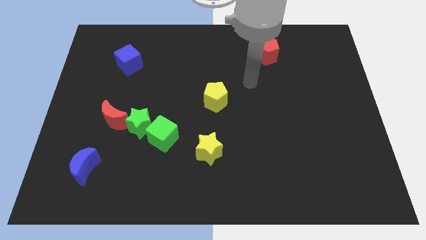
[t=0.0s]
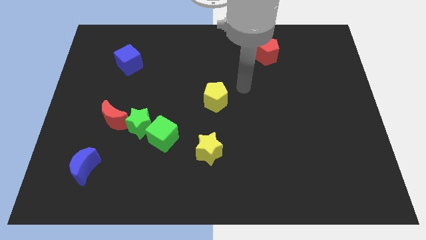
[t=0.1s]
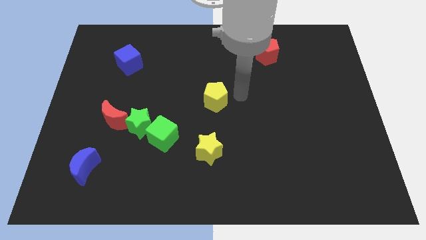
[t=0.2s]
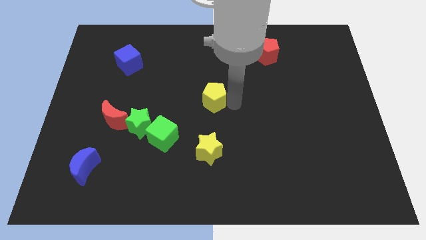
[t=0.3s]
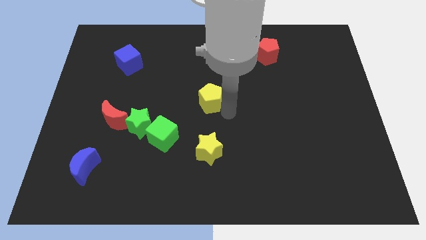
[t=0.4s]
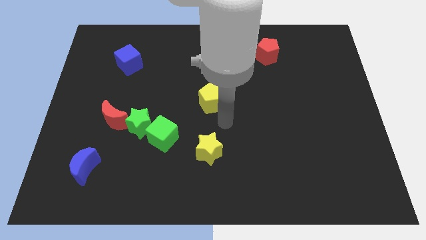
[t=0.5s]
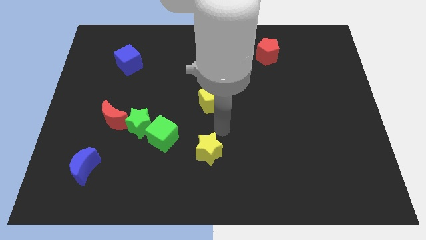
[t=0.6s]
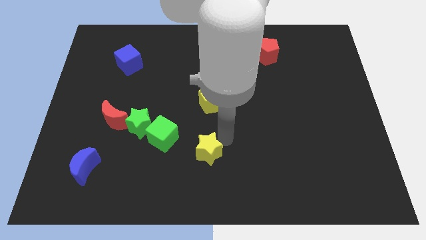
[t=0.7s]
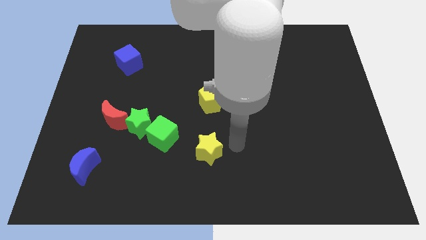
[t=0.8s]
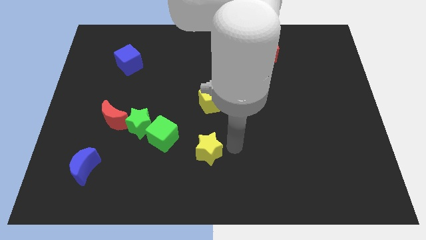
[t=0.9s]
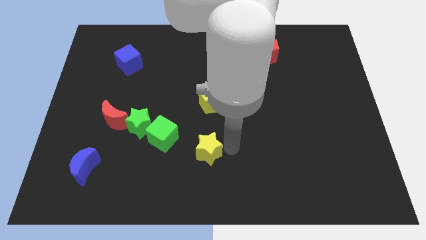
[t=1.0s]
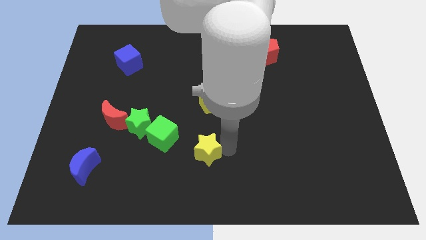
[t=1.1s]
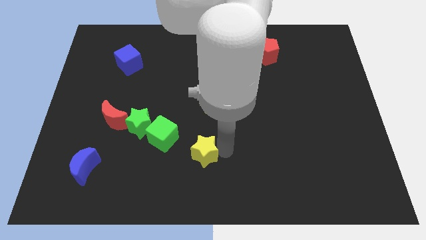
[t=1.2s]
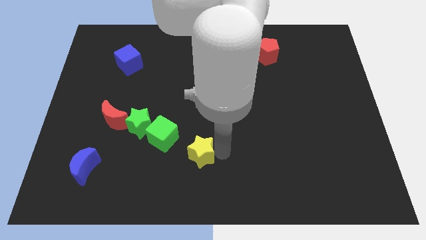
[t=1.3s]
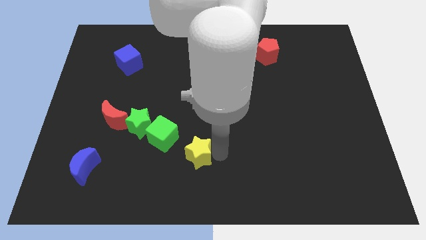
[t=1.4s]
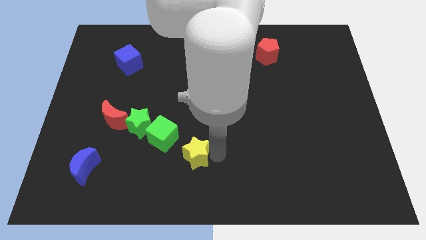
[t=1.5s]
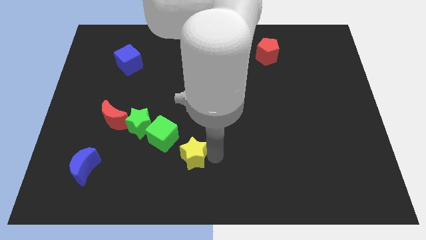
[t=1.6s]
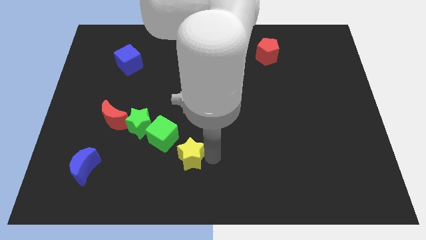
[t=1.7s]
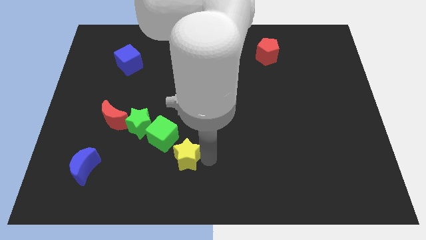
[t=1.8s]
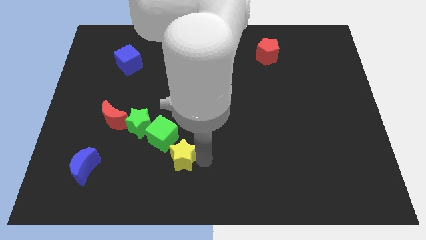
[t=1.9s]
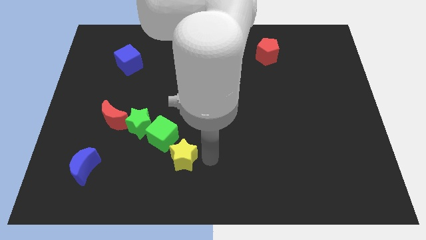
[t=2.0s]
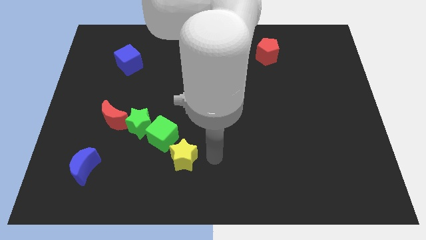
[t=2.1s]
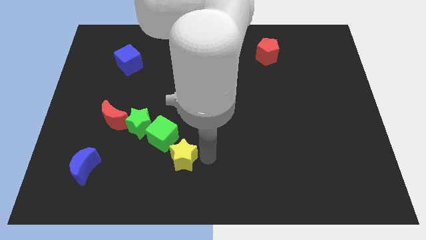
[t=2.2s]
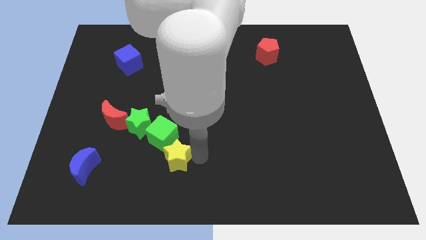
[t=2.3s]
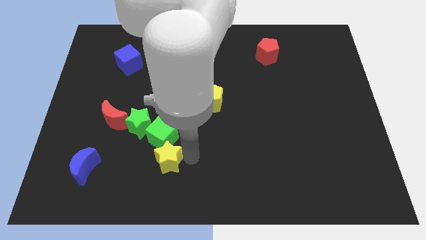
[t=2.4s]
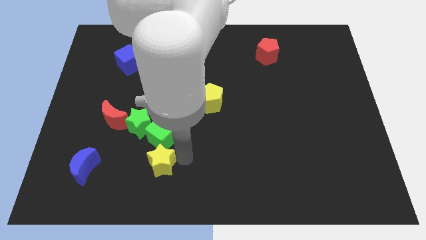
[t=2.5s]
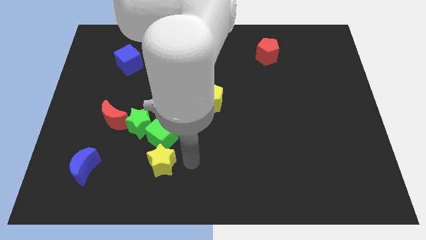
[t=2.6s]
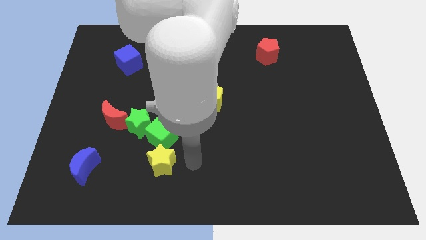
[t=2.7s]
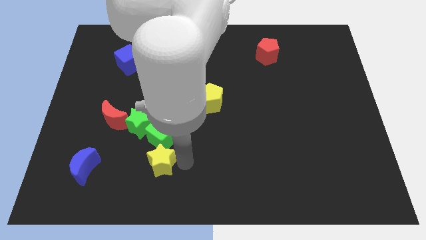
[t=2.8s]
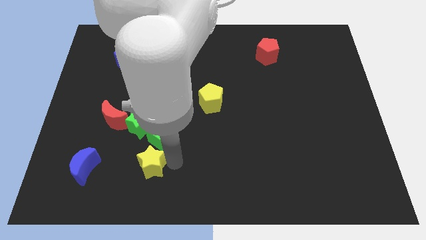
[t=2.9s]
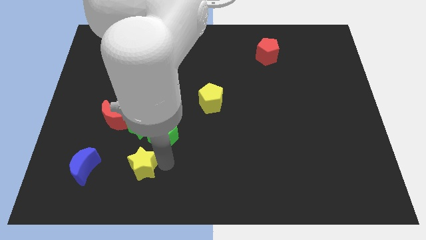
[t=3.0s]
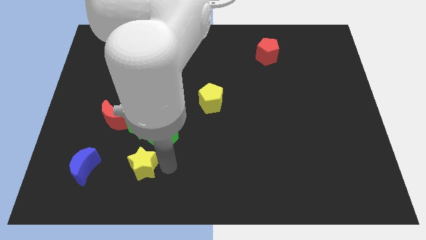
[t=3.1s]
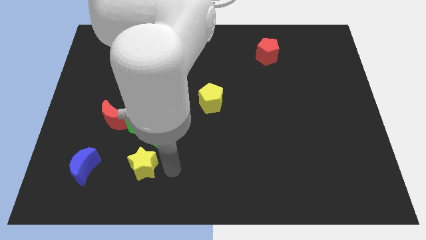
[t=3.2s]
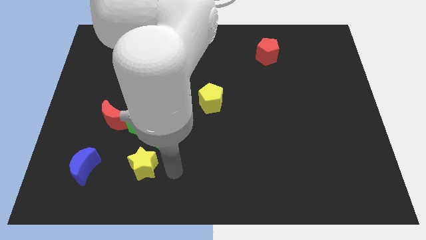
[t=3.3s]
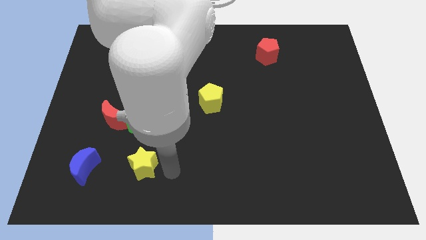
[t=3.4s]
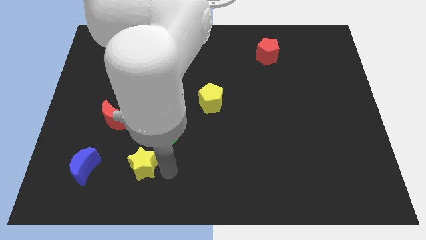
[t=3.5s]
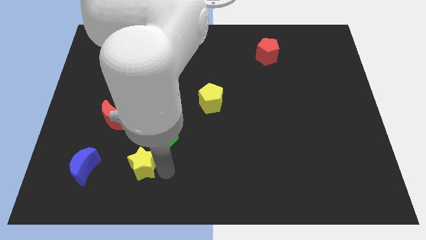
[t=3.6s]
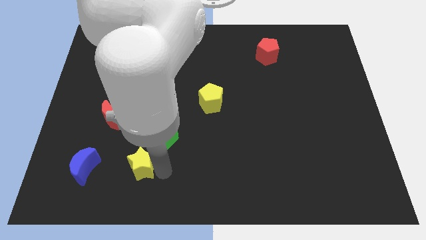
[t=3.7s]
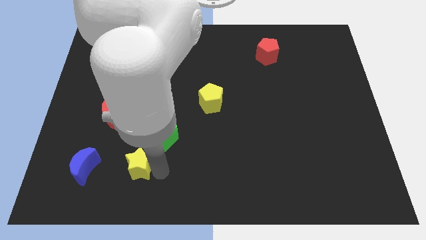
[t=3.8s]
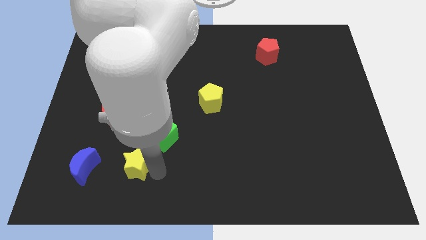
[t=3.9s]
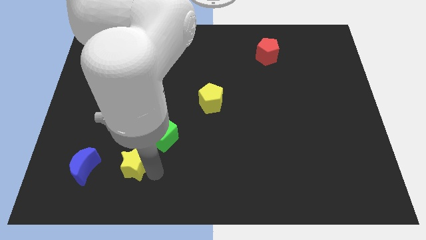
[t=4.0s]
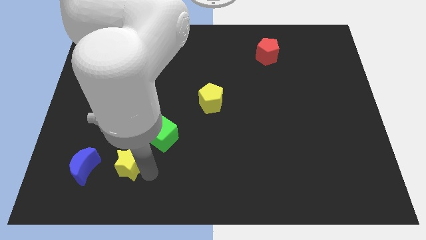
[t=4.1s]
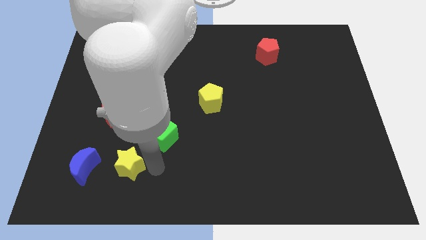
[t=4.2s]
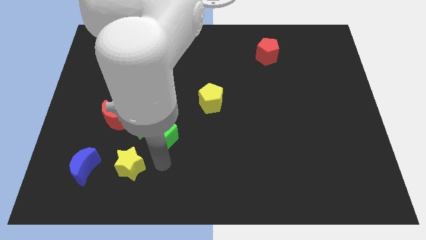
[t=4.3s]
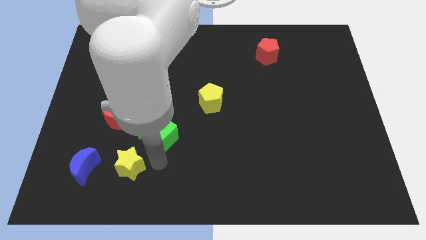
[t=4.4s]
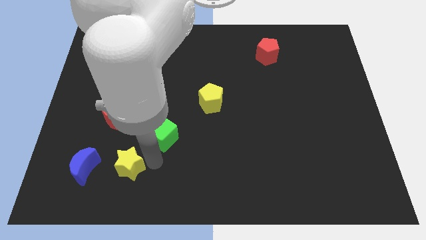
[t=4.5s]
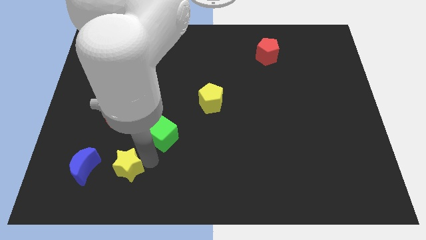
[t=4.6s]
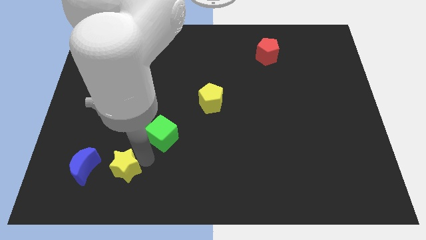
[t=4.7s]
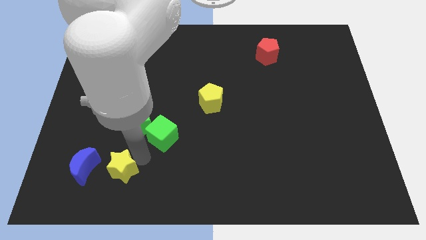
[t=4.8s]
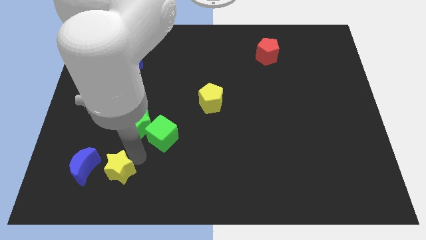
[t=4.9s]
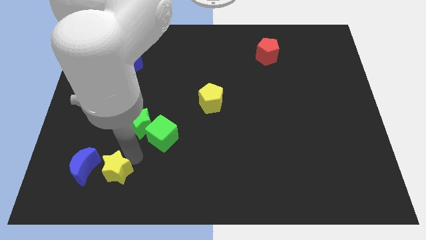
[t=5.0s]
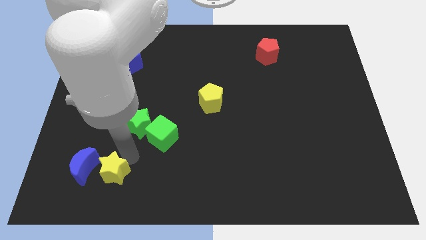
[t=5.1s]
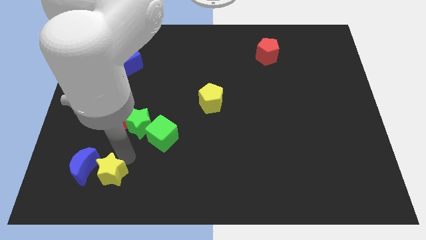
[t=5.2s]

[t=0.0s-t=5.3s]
put the yellow star close to the blue moon
